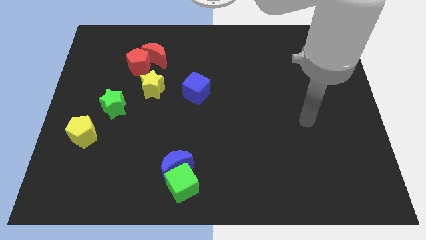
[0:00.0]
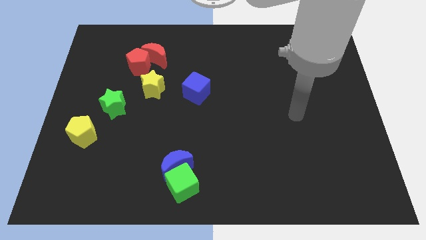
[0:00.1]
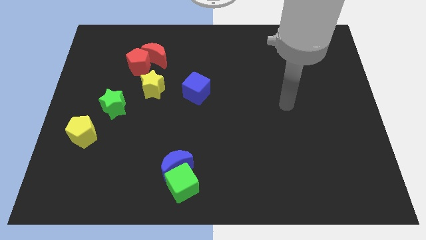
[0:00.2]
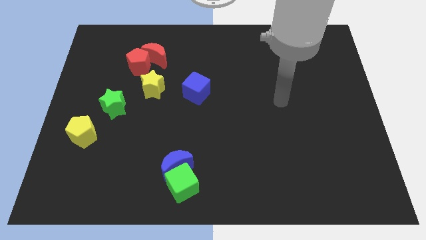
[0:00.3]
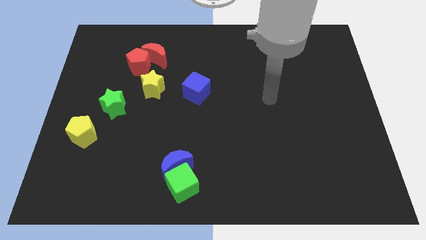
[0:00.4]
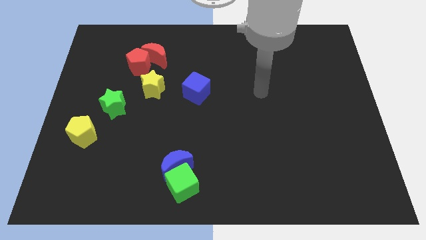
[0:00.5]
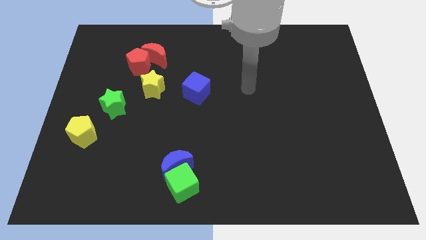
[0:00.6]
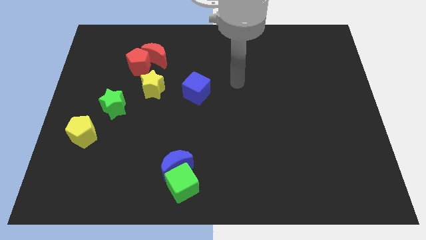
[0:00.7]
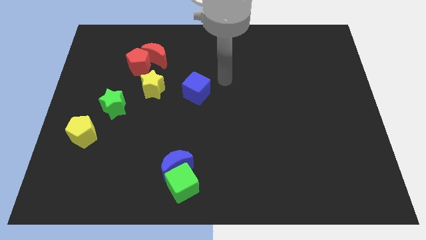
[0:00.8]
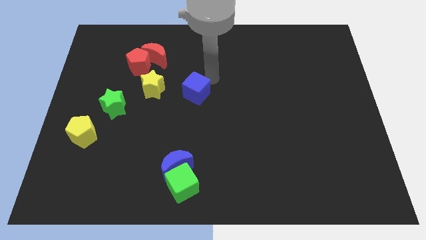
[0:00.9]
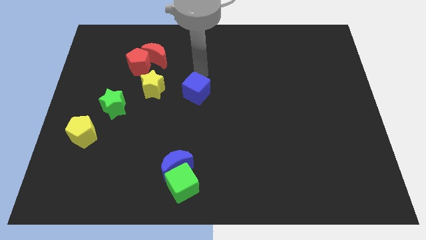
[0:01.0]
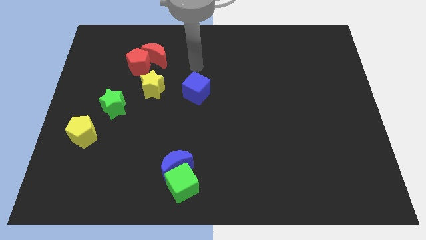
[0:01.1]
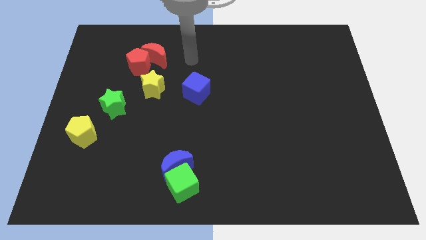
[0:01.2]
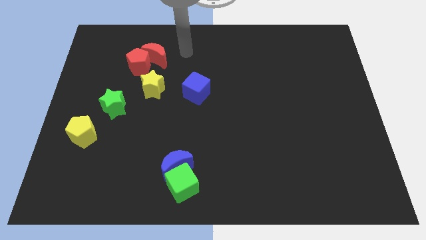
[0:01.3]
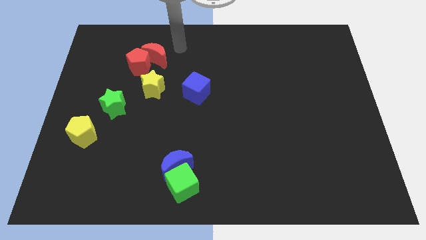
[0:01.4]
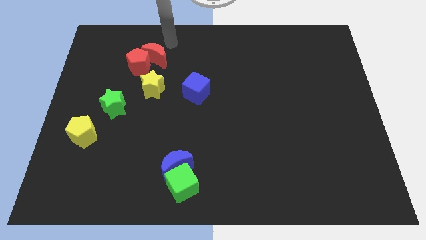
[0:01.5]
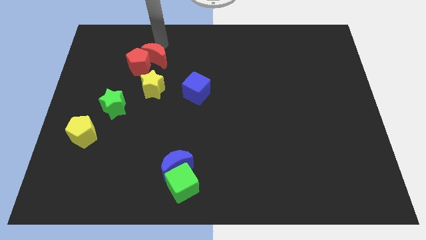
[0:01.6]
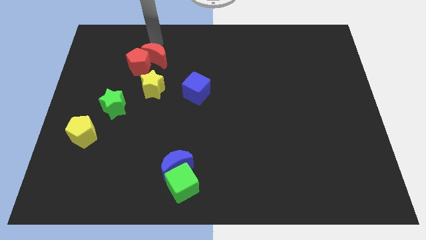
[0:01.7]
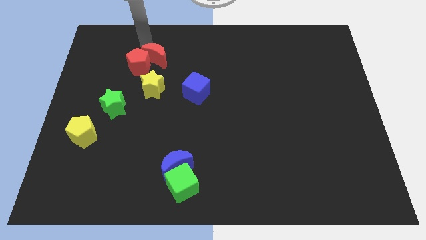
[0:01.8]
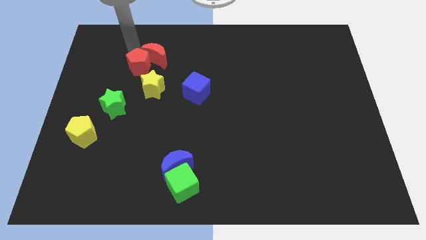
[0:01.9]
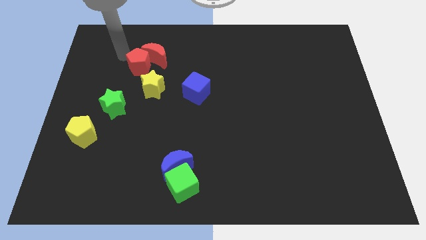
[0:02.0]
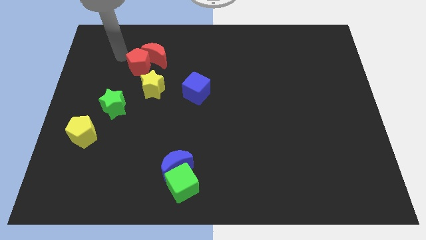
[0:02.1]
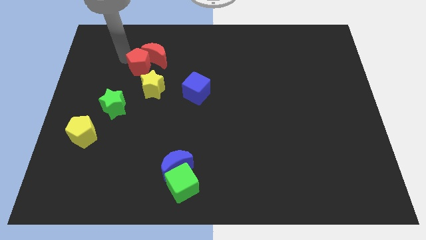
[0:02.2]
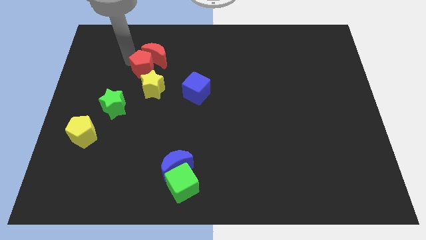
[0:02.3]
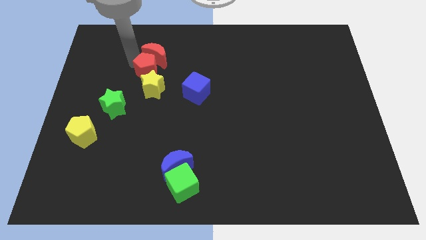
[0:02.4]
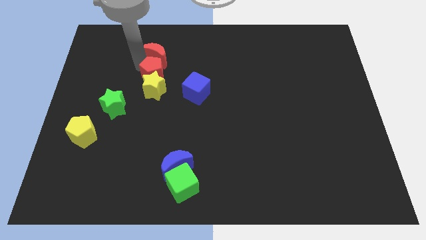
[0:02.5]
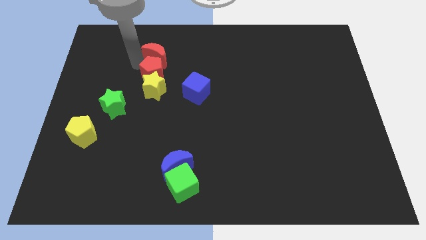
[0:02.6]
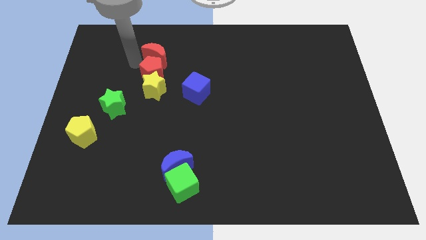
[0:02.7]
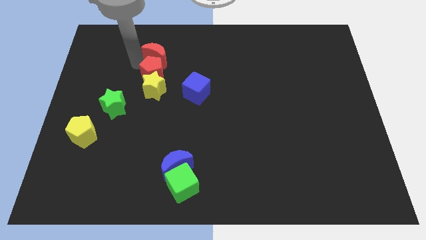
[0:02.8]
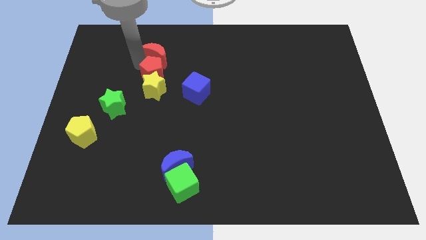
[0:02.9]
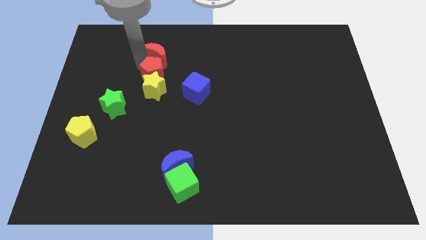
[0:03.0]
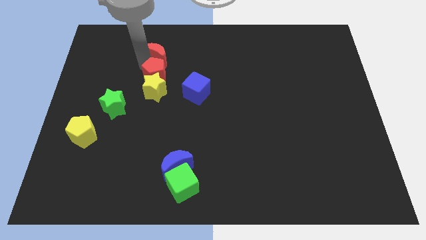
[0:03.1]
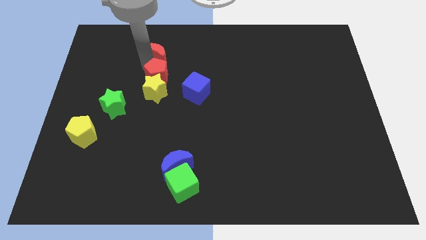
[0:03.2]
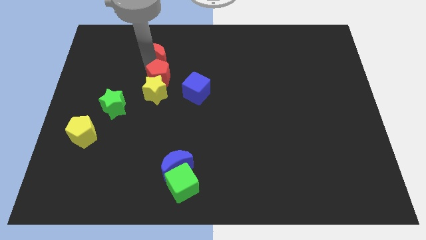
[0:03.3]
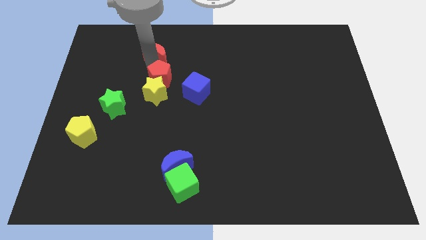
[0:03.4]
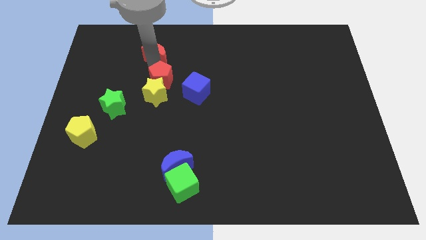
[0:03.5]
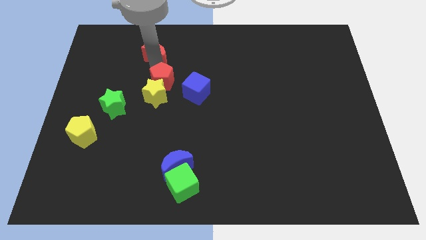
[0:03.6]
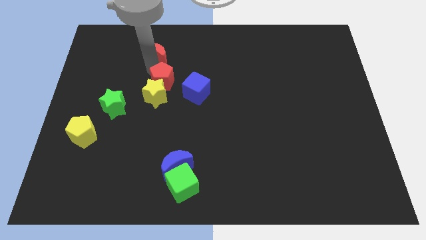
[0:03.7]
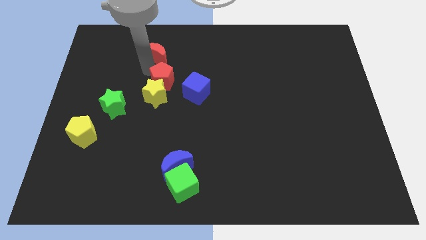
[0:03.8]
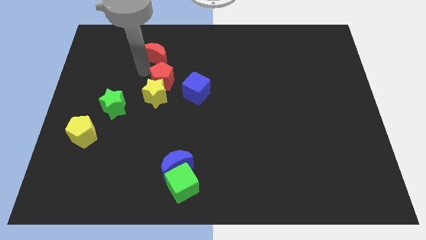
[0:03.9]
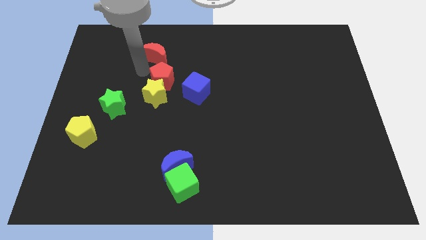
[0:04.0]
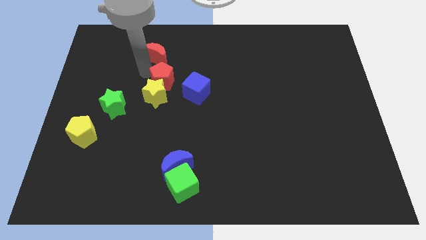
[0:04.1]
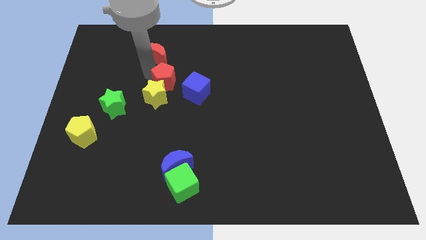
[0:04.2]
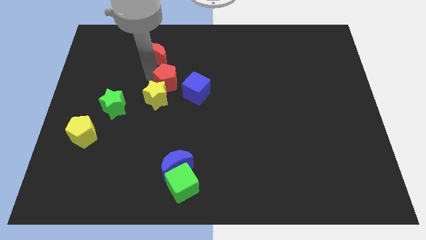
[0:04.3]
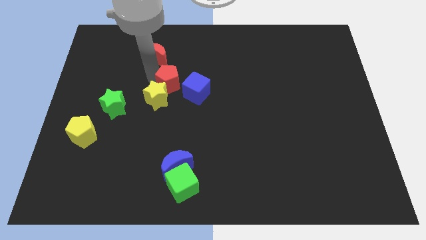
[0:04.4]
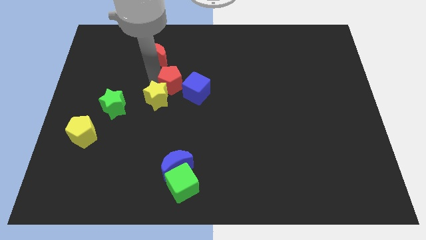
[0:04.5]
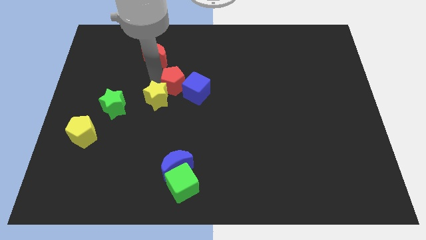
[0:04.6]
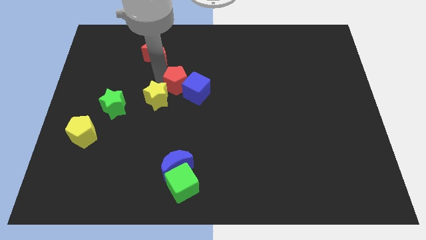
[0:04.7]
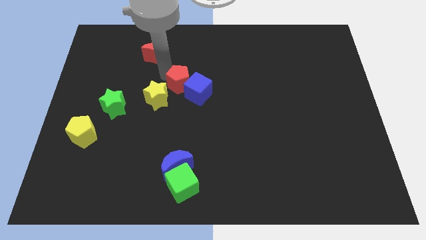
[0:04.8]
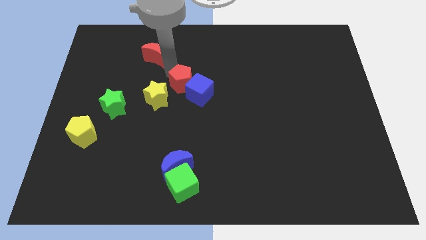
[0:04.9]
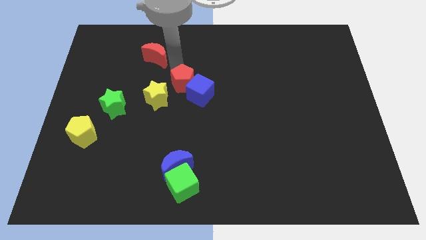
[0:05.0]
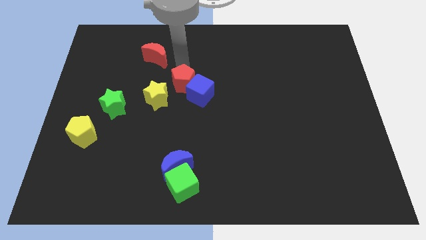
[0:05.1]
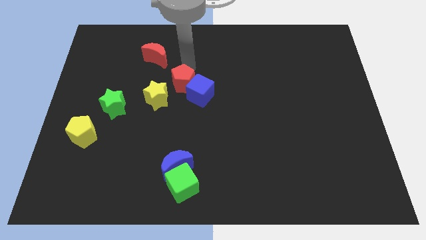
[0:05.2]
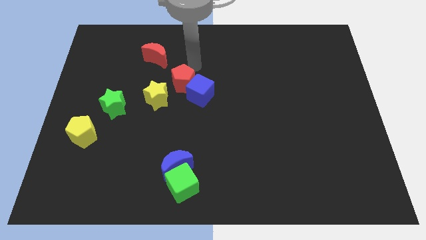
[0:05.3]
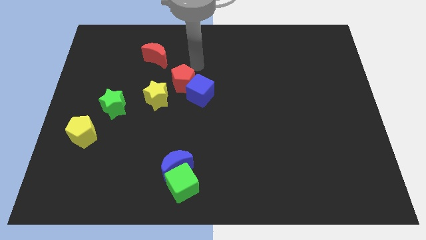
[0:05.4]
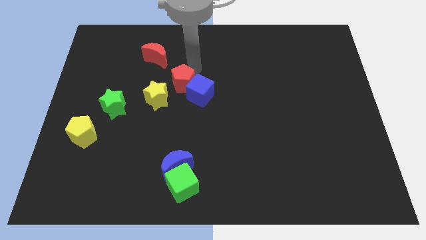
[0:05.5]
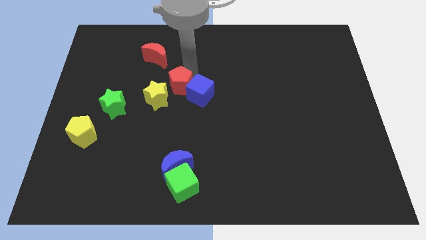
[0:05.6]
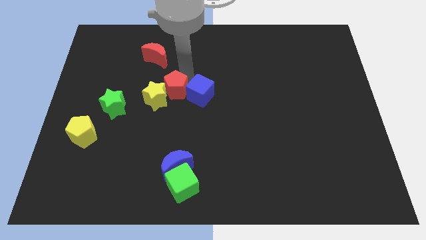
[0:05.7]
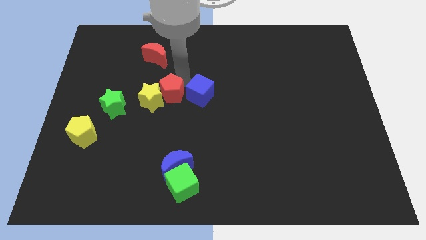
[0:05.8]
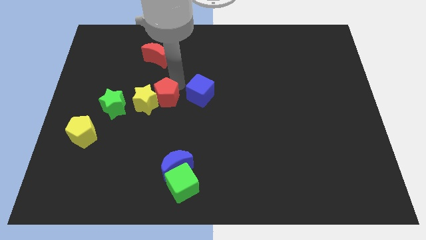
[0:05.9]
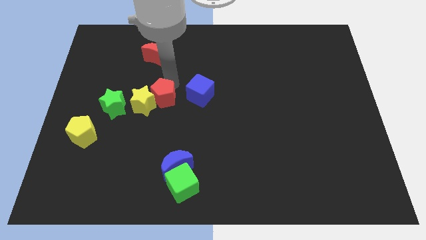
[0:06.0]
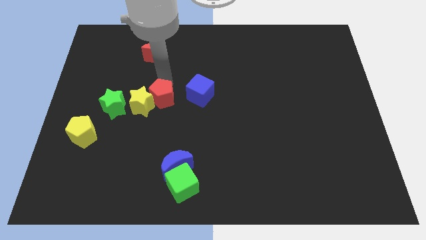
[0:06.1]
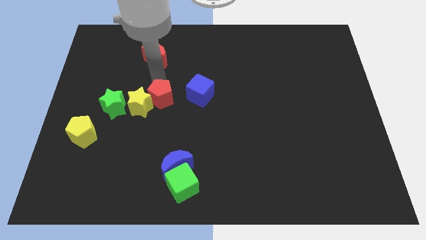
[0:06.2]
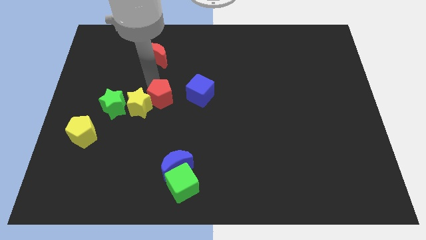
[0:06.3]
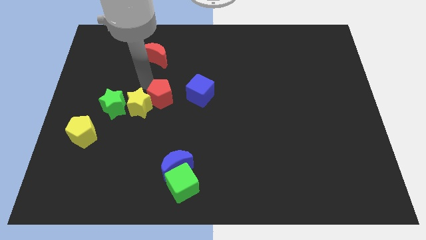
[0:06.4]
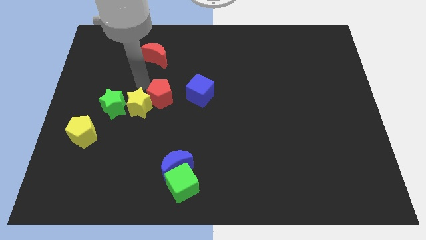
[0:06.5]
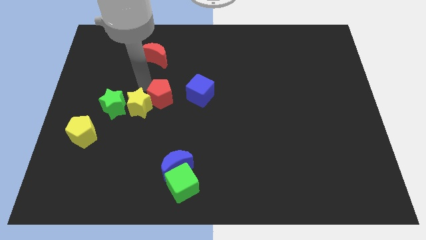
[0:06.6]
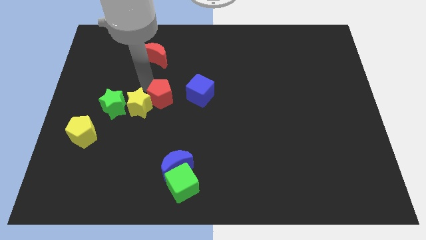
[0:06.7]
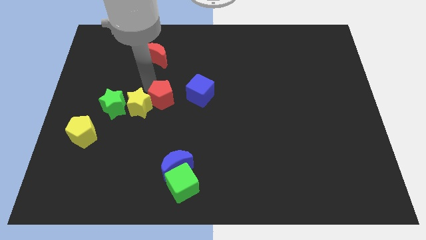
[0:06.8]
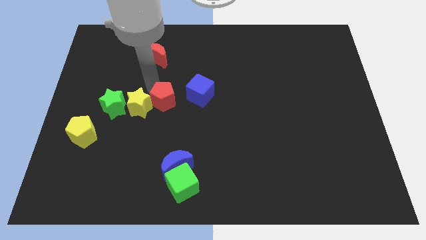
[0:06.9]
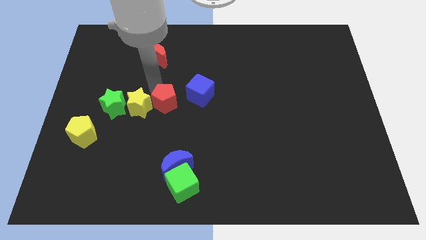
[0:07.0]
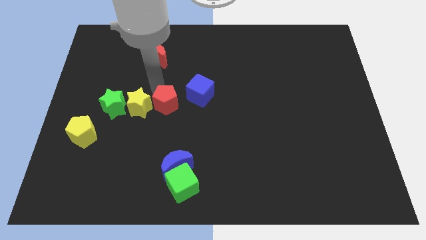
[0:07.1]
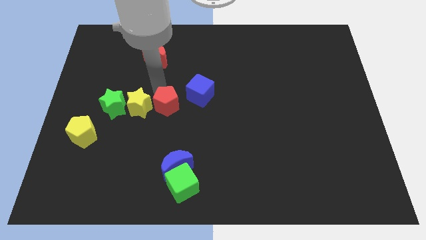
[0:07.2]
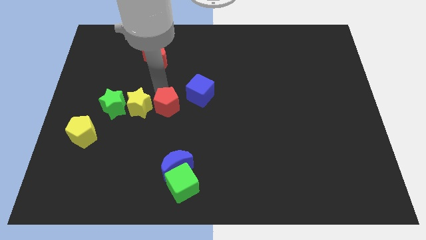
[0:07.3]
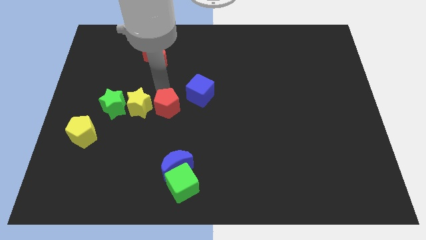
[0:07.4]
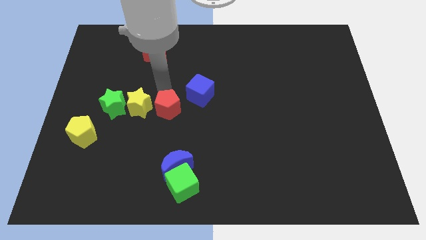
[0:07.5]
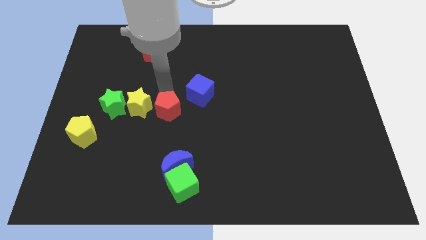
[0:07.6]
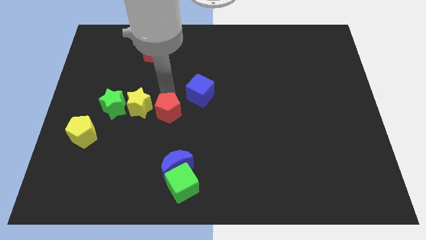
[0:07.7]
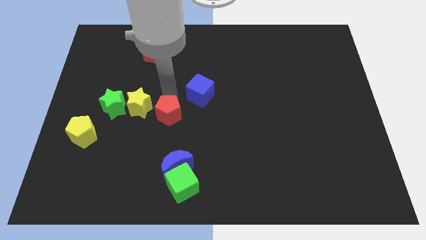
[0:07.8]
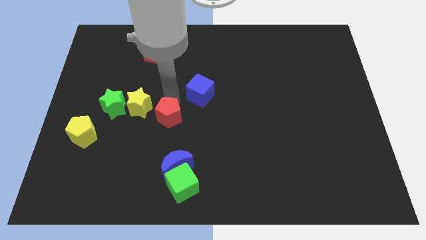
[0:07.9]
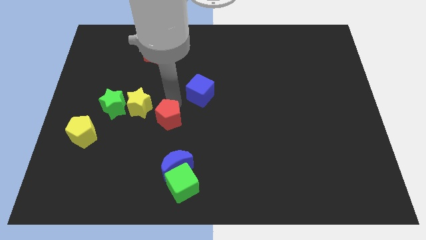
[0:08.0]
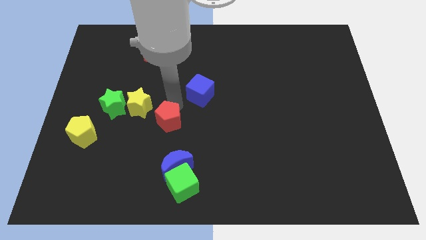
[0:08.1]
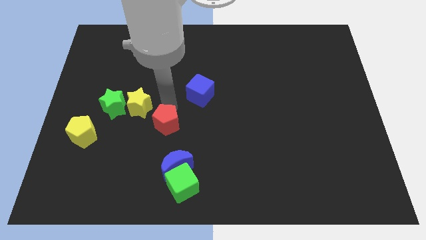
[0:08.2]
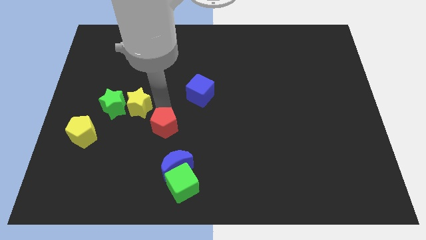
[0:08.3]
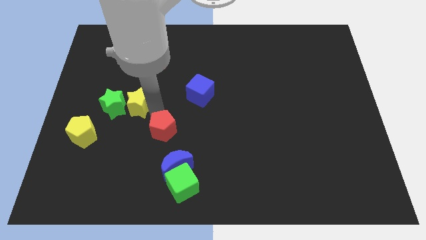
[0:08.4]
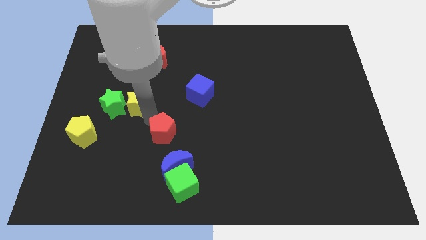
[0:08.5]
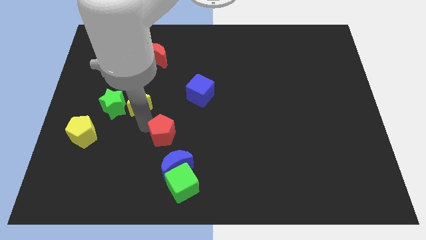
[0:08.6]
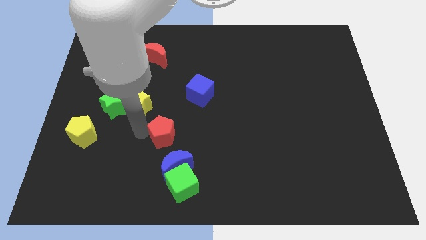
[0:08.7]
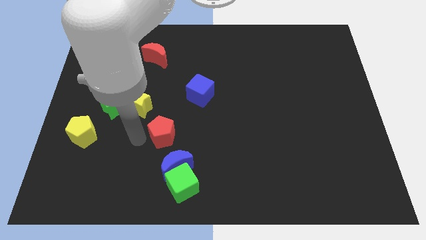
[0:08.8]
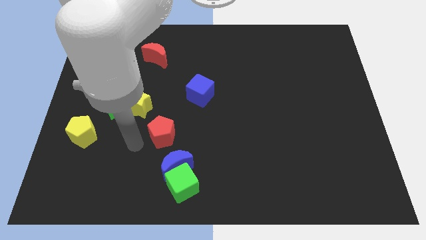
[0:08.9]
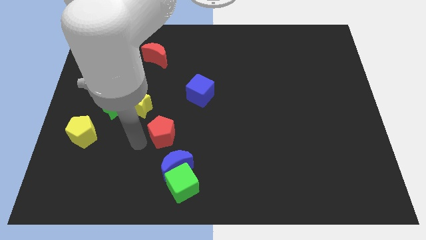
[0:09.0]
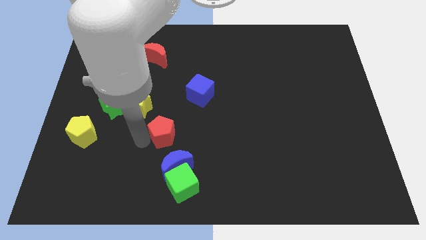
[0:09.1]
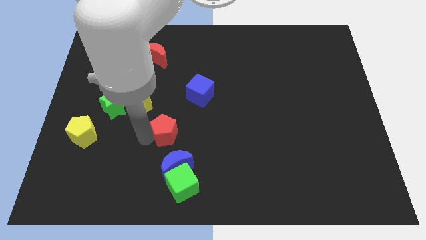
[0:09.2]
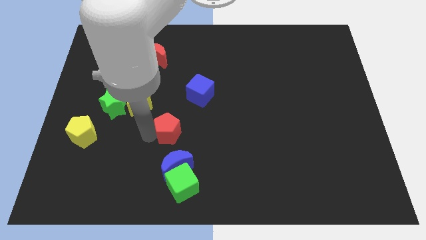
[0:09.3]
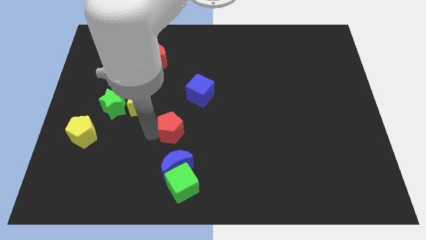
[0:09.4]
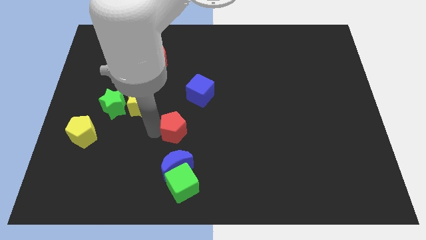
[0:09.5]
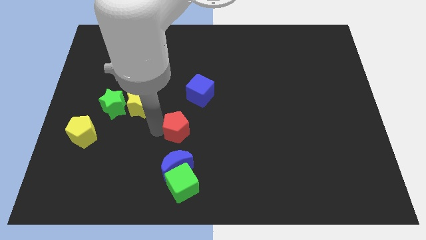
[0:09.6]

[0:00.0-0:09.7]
move the red pentagon down and to the right
